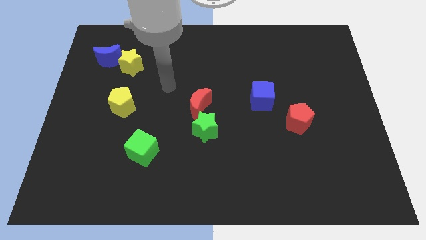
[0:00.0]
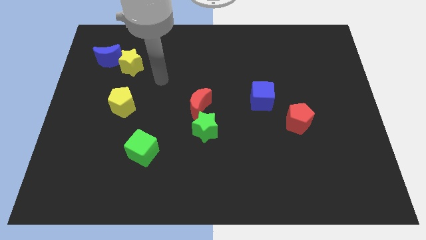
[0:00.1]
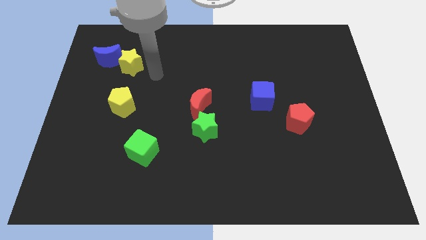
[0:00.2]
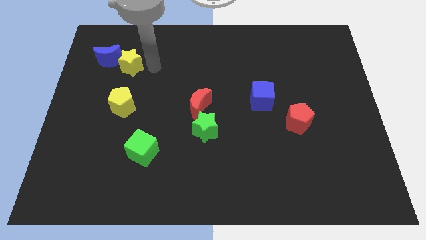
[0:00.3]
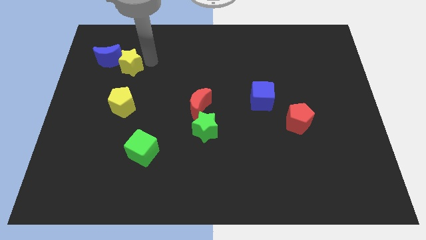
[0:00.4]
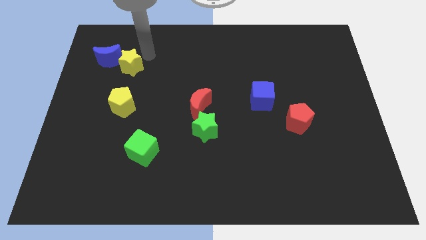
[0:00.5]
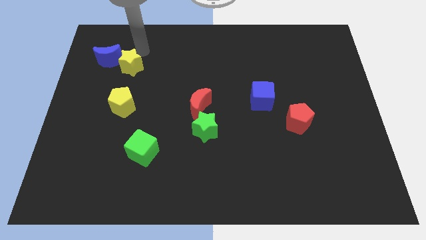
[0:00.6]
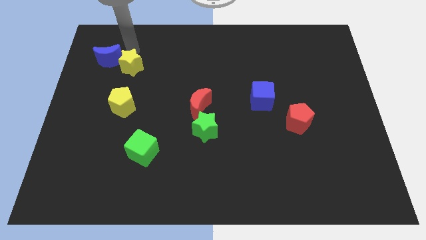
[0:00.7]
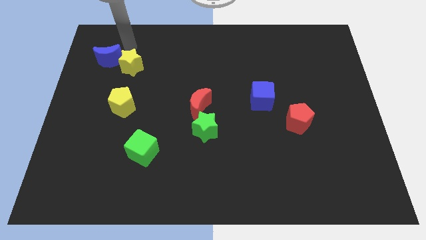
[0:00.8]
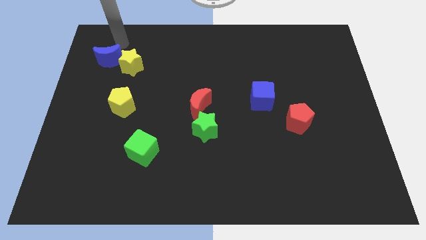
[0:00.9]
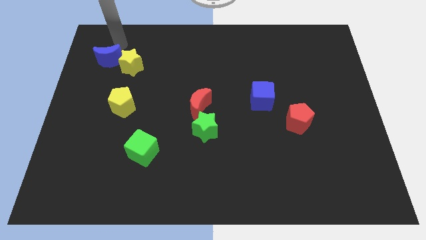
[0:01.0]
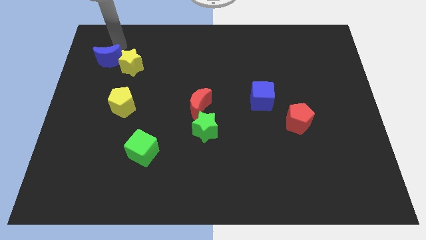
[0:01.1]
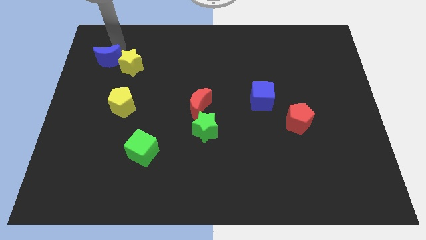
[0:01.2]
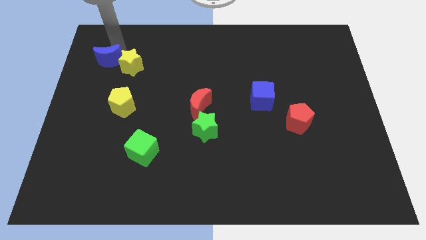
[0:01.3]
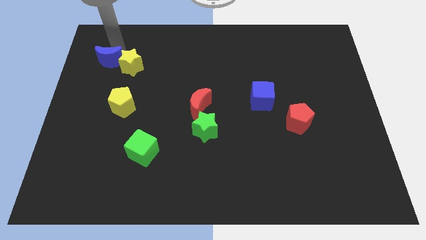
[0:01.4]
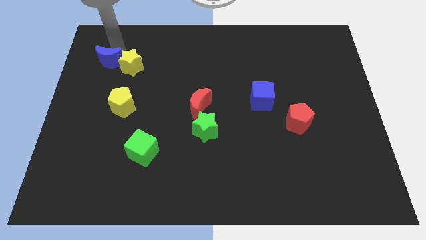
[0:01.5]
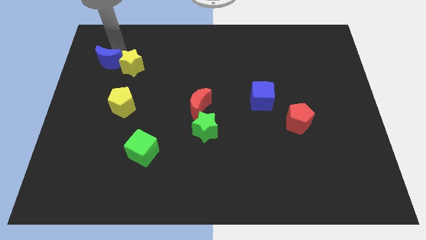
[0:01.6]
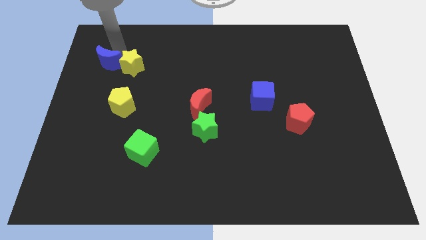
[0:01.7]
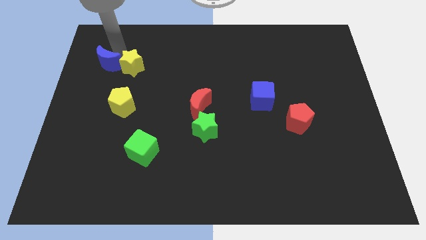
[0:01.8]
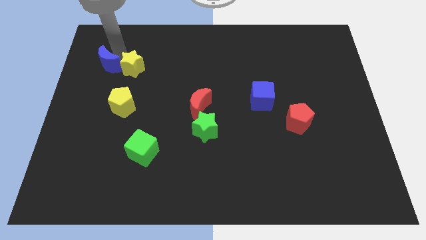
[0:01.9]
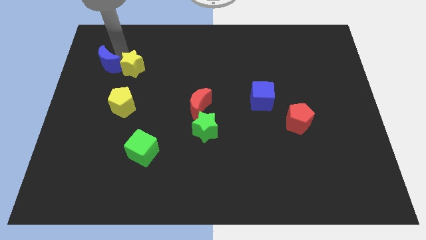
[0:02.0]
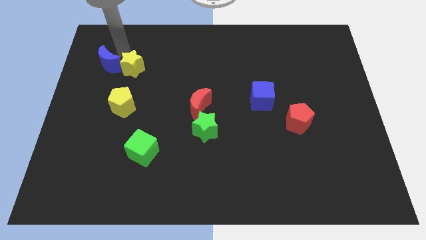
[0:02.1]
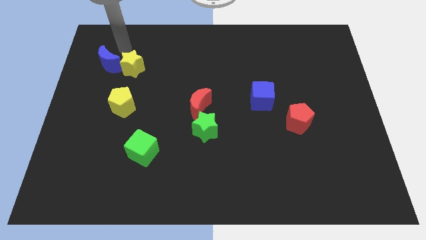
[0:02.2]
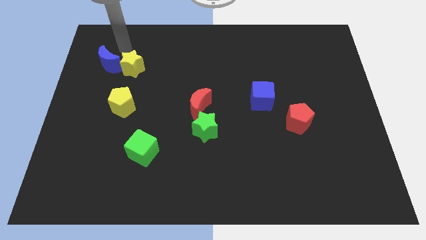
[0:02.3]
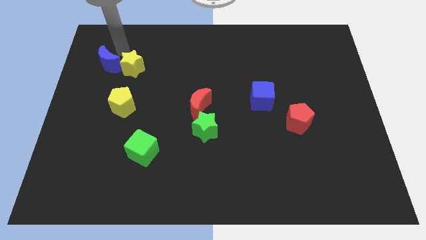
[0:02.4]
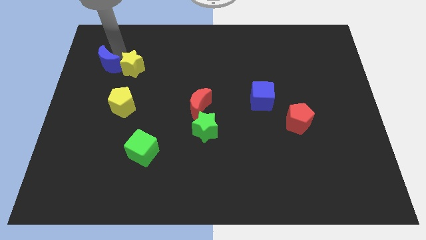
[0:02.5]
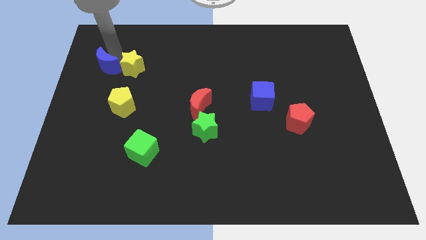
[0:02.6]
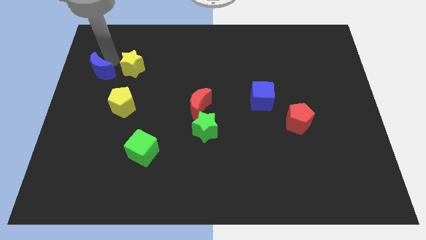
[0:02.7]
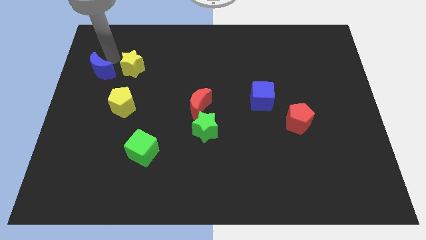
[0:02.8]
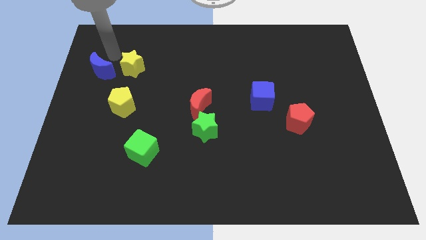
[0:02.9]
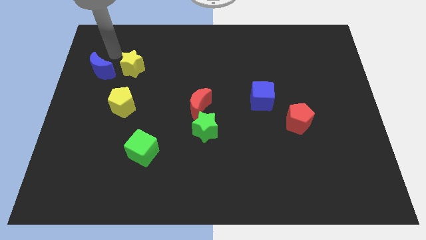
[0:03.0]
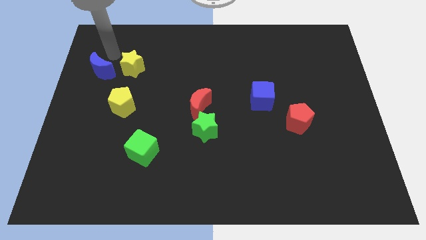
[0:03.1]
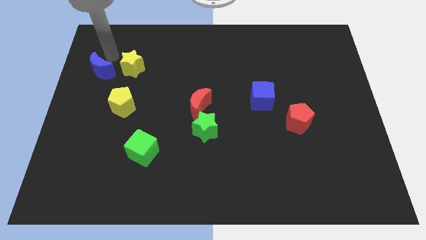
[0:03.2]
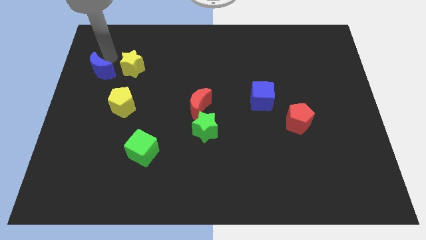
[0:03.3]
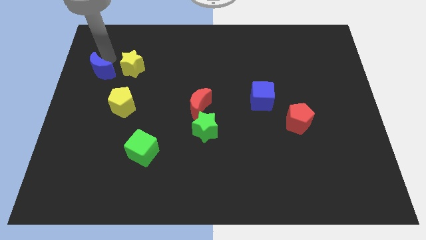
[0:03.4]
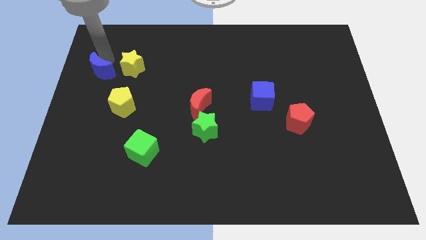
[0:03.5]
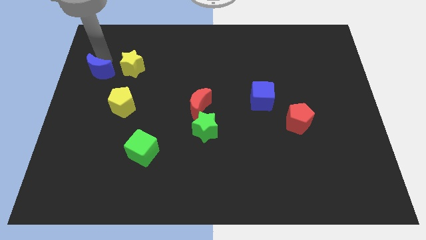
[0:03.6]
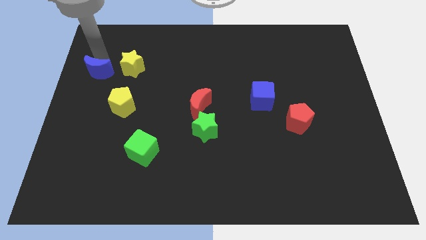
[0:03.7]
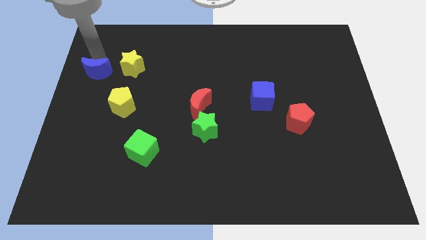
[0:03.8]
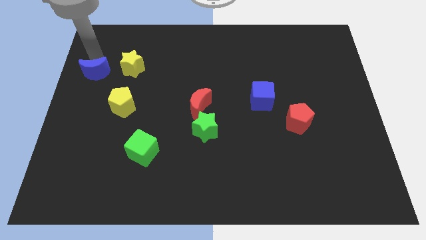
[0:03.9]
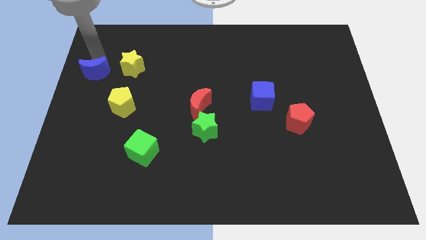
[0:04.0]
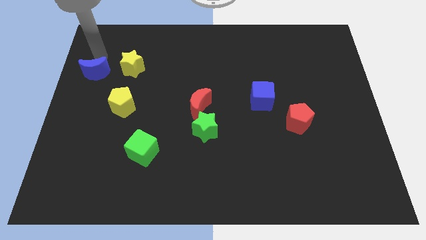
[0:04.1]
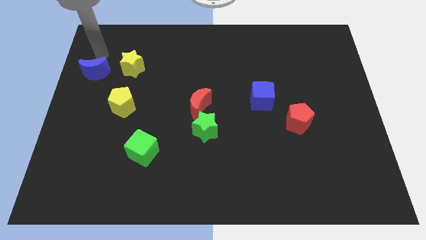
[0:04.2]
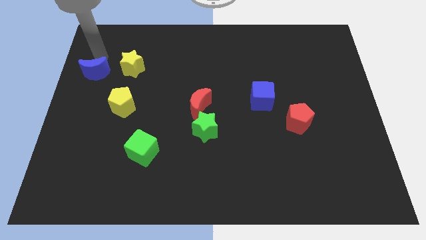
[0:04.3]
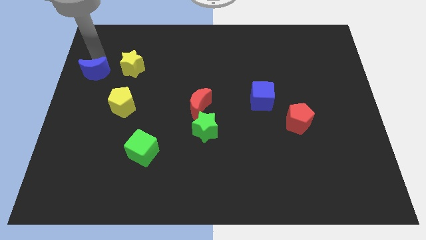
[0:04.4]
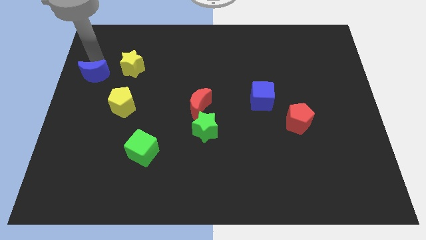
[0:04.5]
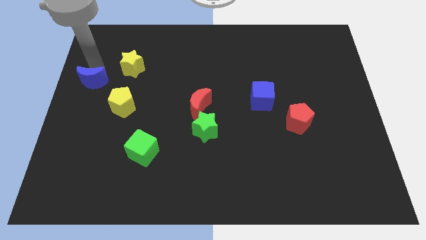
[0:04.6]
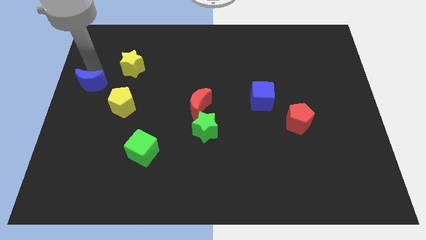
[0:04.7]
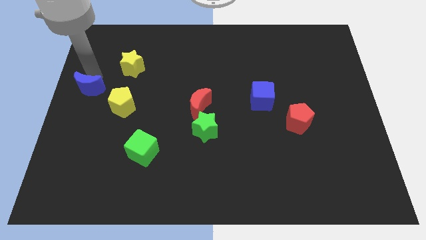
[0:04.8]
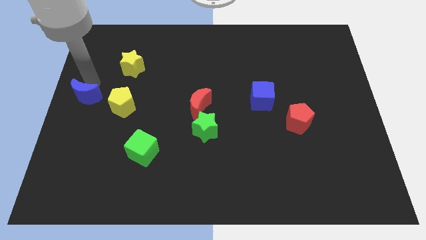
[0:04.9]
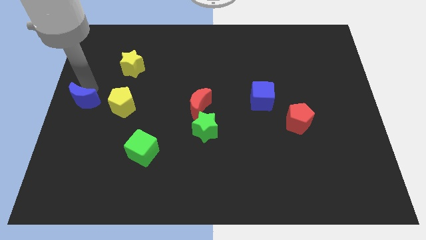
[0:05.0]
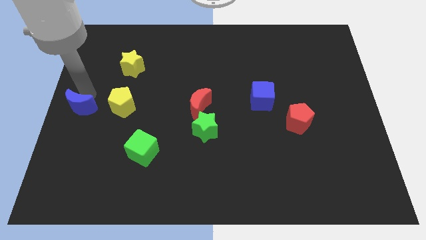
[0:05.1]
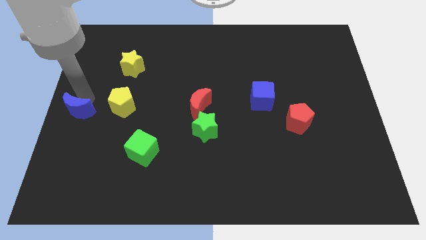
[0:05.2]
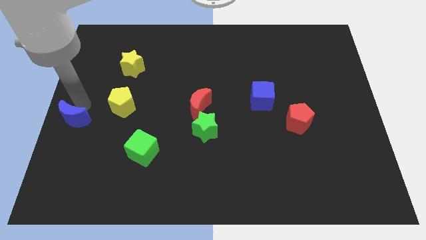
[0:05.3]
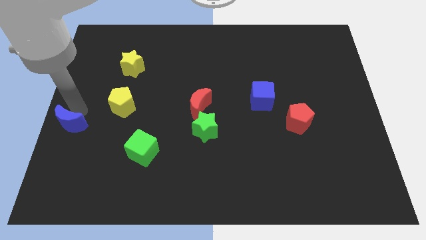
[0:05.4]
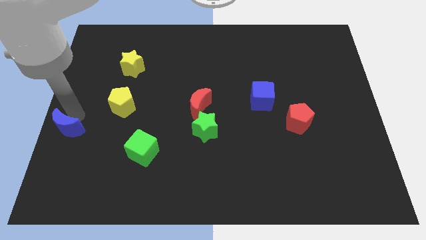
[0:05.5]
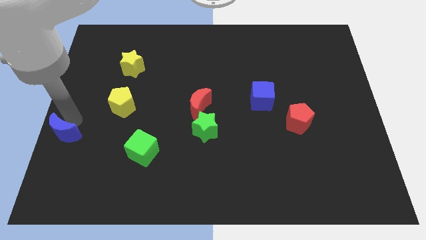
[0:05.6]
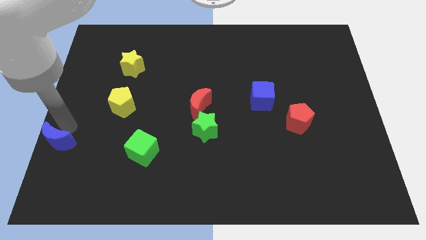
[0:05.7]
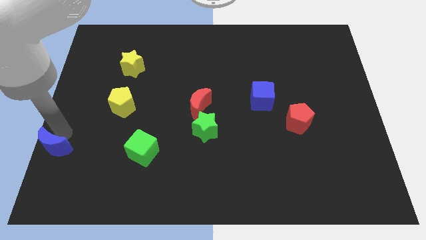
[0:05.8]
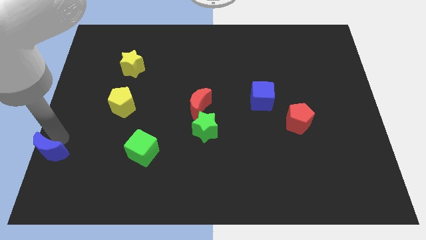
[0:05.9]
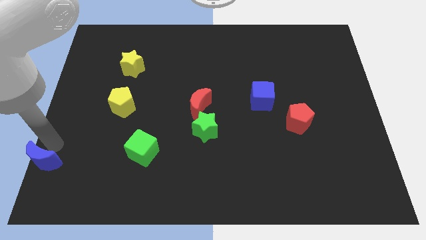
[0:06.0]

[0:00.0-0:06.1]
slide the blue moon to the lower left corner
